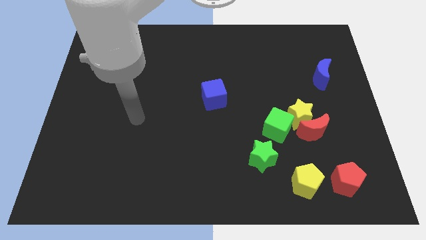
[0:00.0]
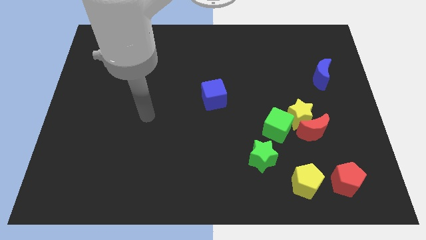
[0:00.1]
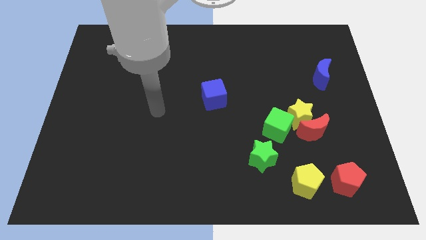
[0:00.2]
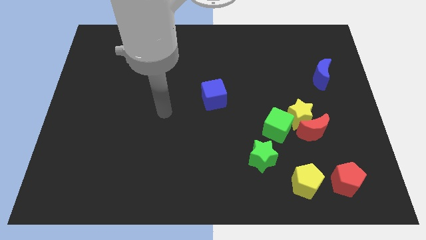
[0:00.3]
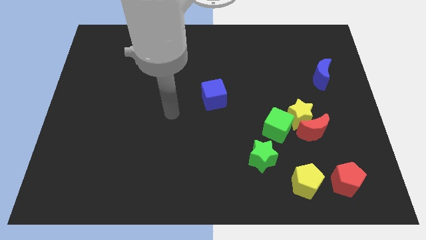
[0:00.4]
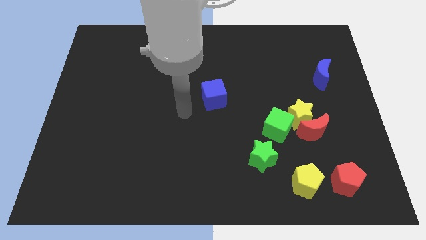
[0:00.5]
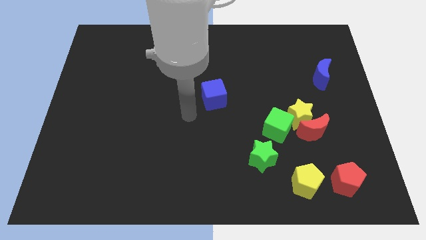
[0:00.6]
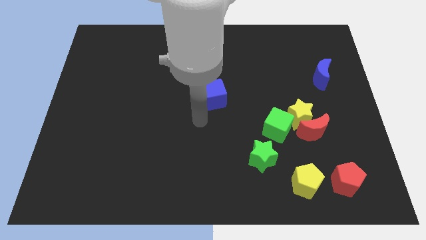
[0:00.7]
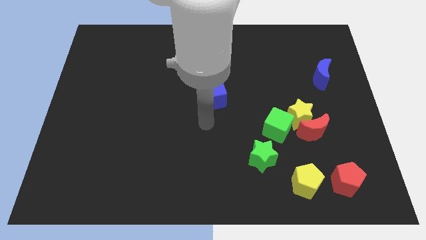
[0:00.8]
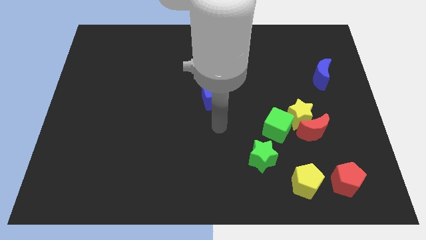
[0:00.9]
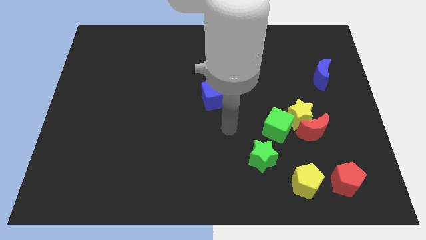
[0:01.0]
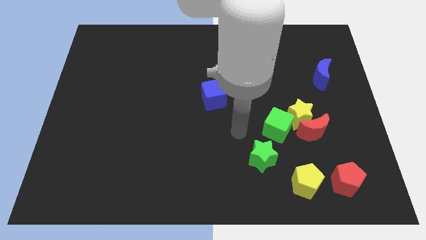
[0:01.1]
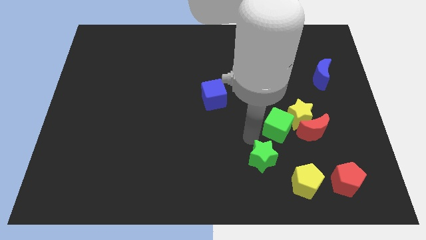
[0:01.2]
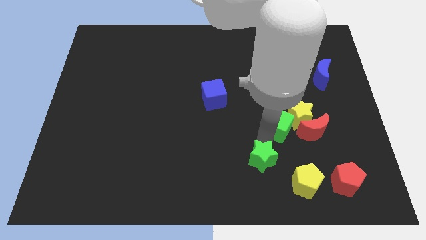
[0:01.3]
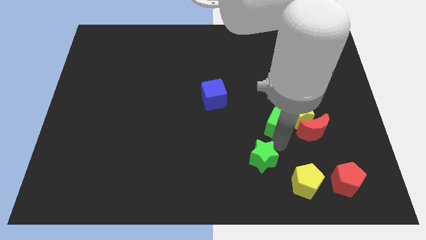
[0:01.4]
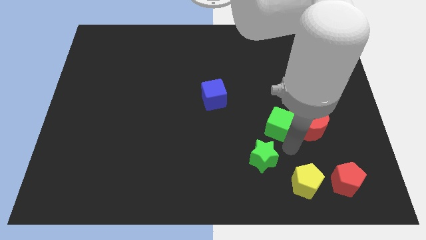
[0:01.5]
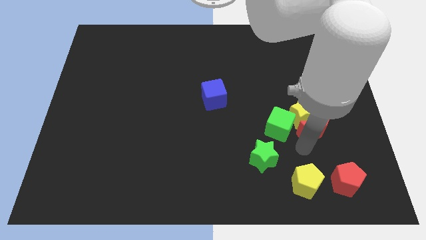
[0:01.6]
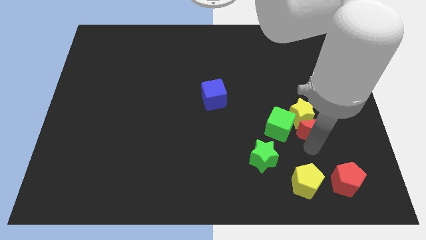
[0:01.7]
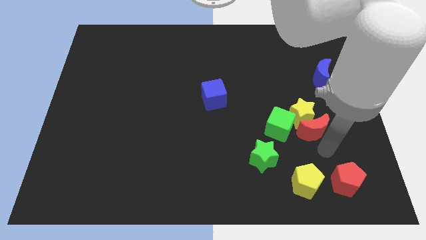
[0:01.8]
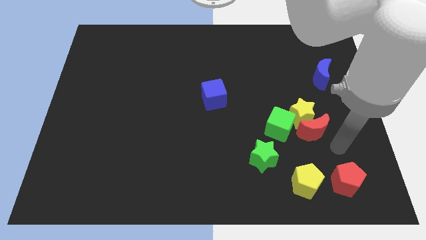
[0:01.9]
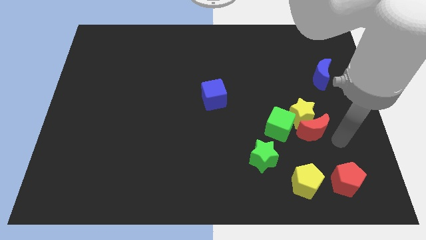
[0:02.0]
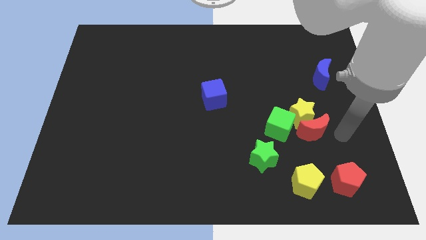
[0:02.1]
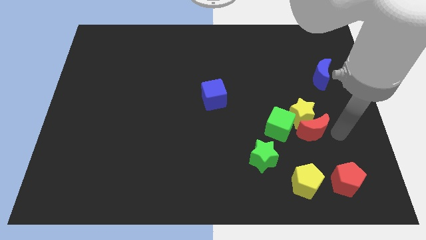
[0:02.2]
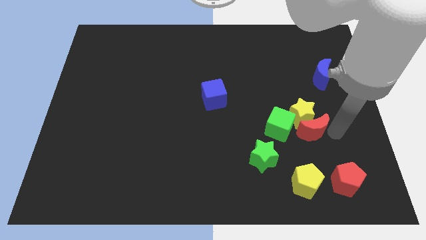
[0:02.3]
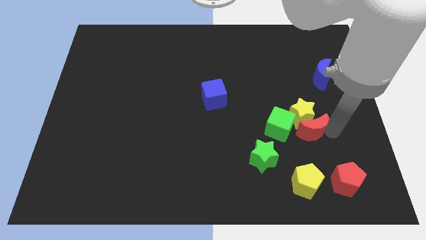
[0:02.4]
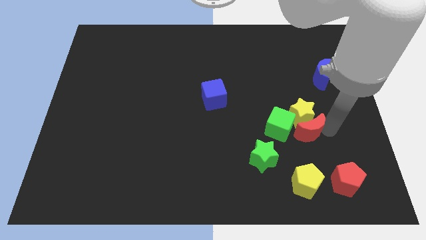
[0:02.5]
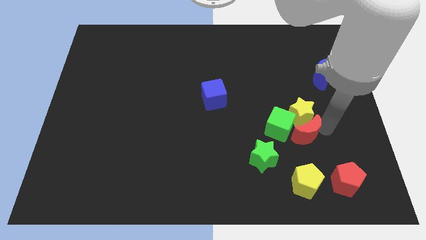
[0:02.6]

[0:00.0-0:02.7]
move the red moon towards the green cube

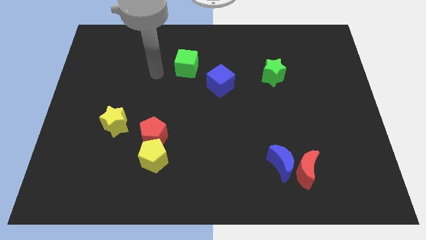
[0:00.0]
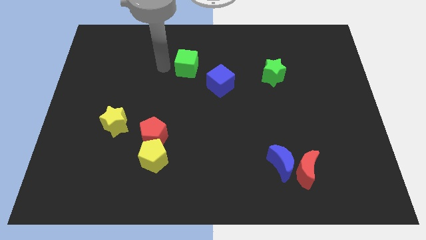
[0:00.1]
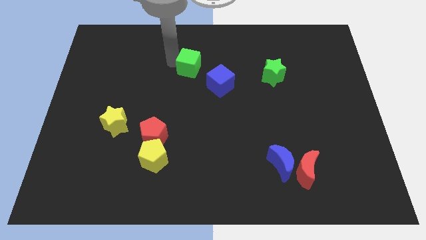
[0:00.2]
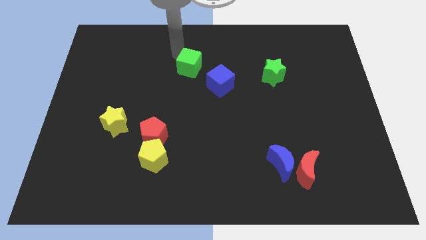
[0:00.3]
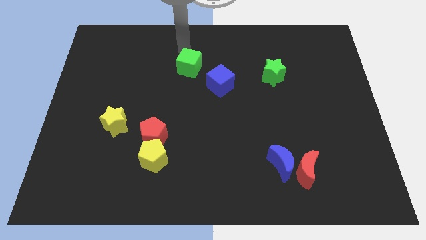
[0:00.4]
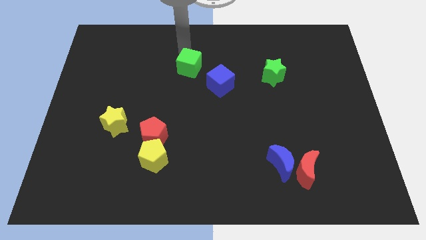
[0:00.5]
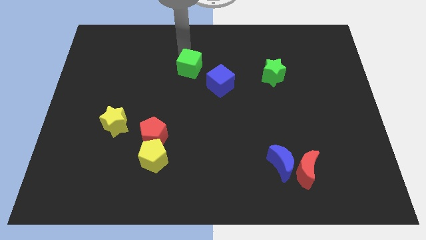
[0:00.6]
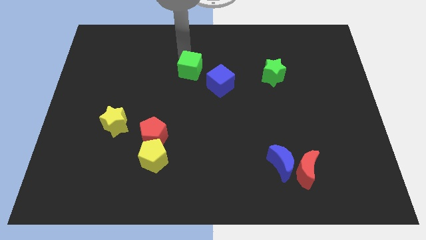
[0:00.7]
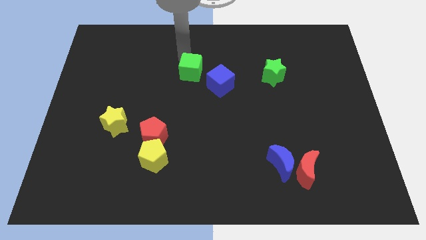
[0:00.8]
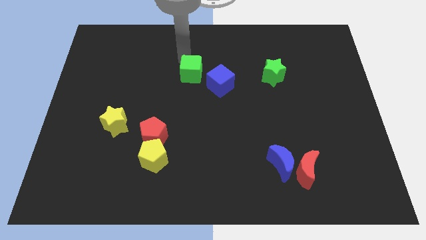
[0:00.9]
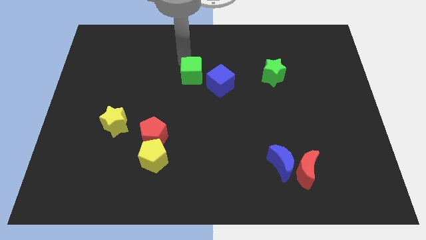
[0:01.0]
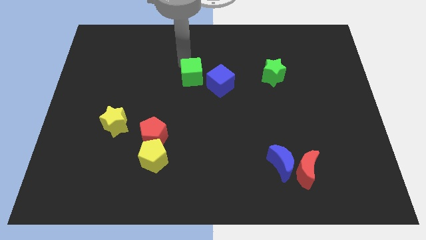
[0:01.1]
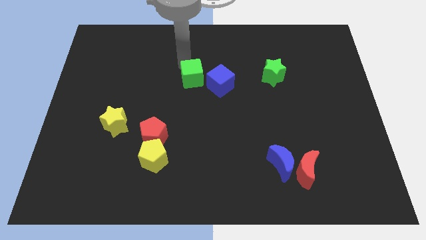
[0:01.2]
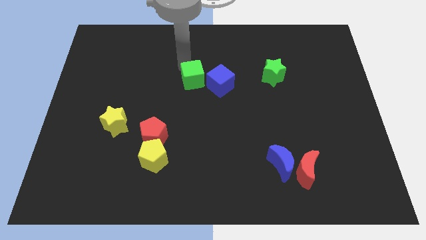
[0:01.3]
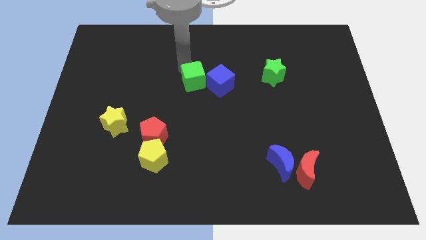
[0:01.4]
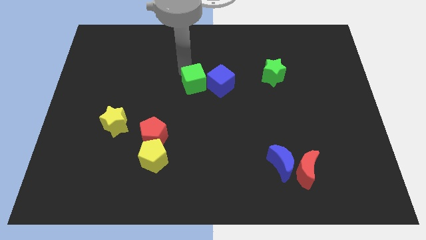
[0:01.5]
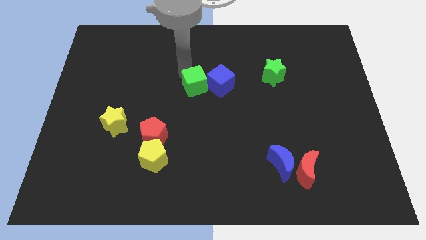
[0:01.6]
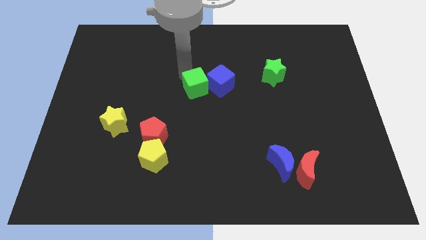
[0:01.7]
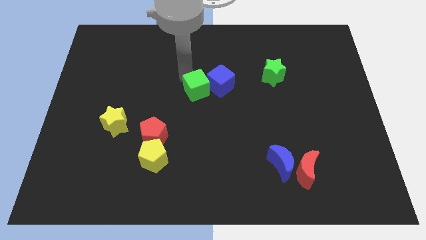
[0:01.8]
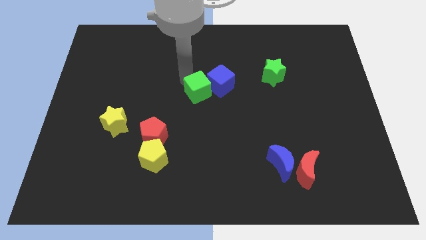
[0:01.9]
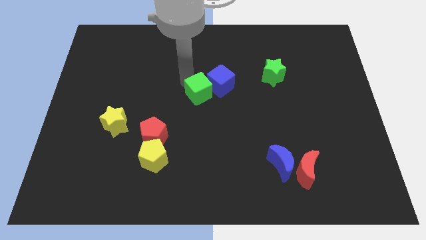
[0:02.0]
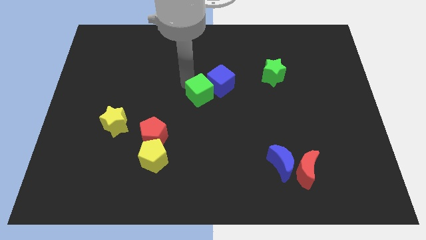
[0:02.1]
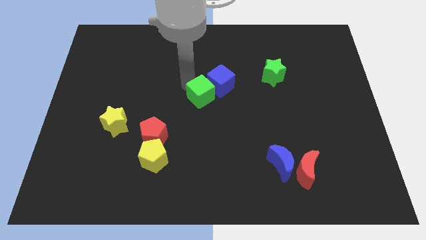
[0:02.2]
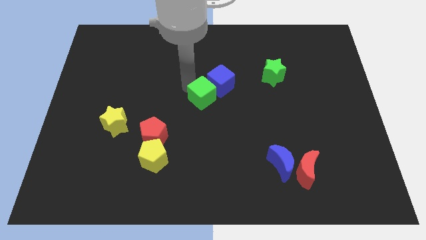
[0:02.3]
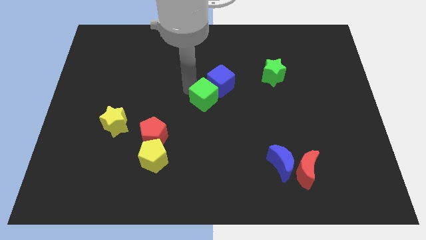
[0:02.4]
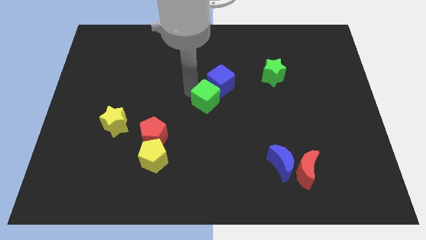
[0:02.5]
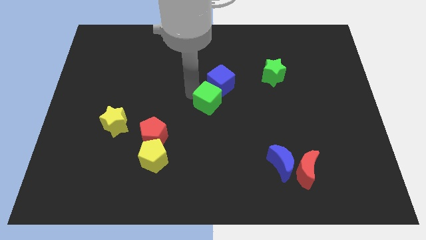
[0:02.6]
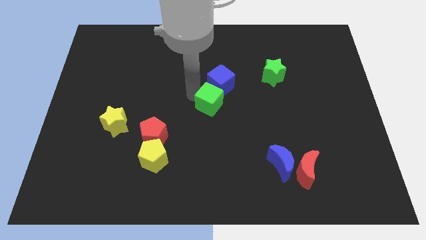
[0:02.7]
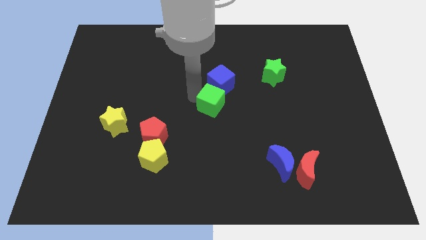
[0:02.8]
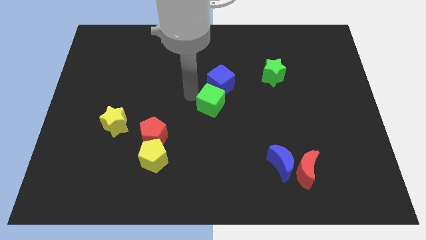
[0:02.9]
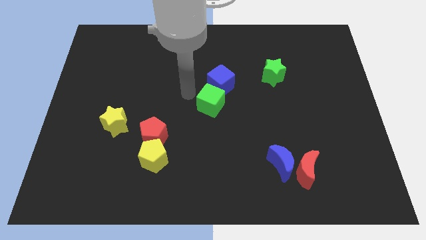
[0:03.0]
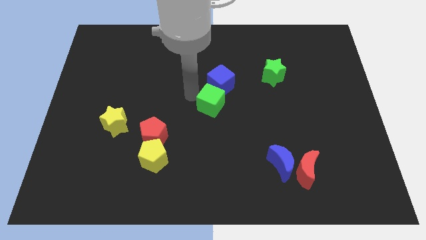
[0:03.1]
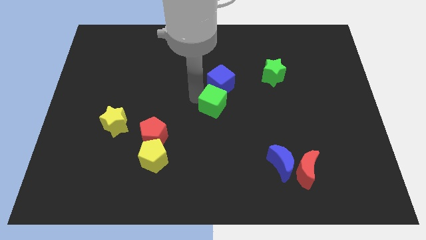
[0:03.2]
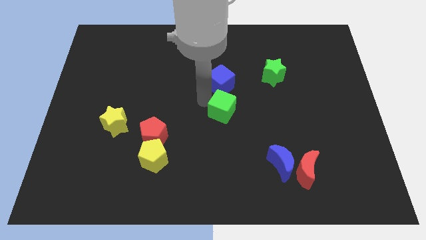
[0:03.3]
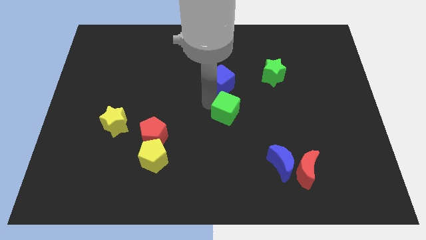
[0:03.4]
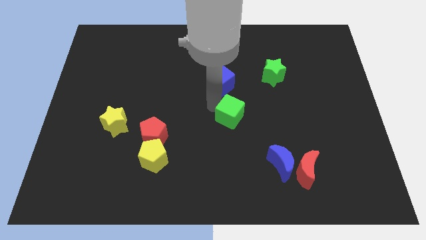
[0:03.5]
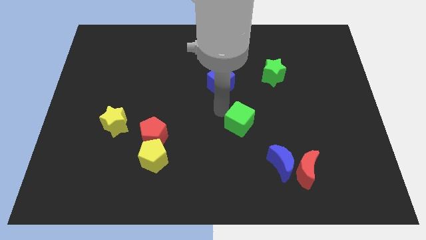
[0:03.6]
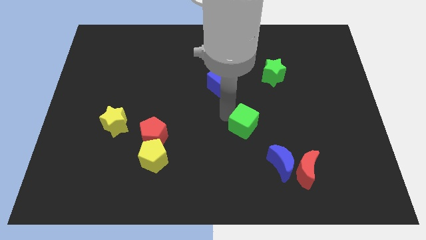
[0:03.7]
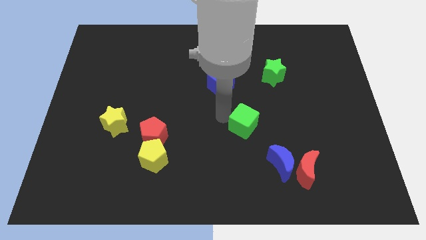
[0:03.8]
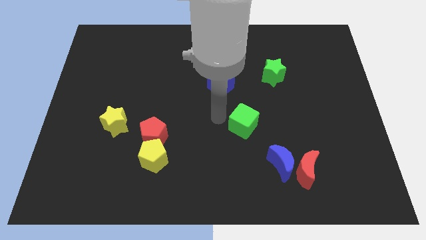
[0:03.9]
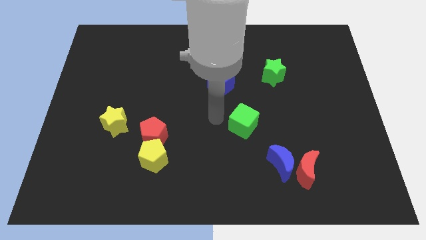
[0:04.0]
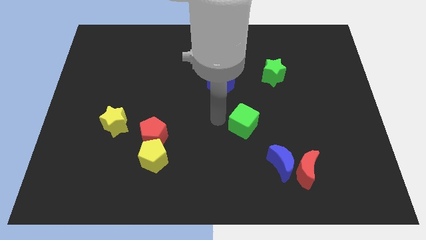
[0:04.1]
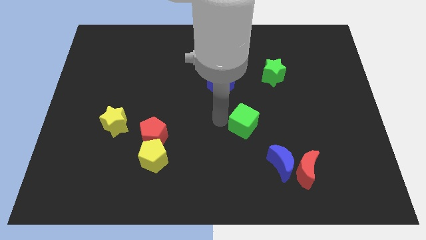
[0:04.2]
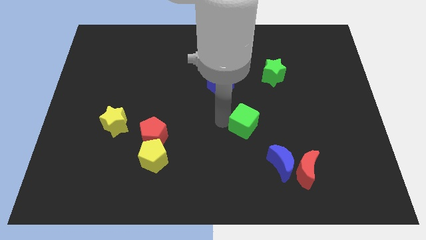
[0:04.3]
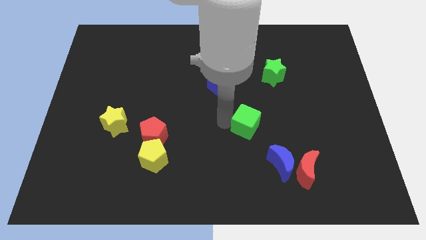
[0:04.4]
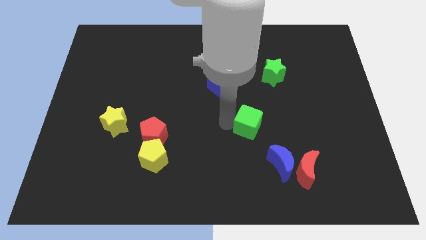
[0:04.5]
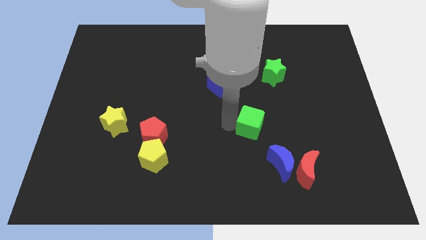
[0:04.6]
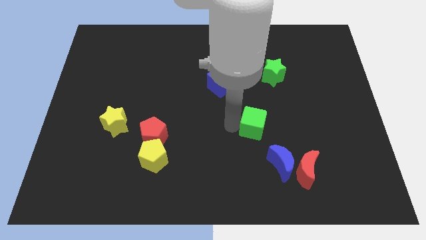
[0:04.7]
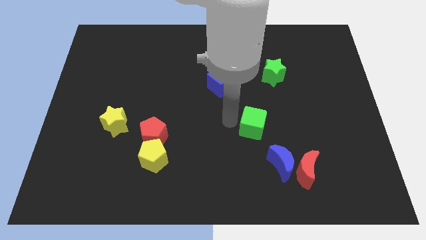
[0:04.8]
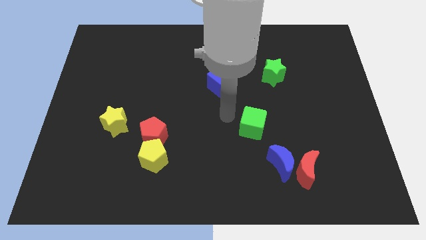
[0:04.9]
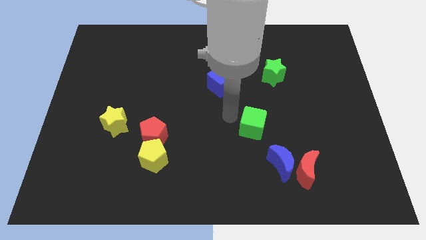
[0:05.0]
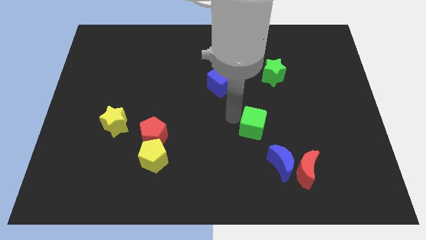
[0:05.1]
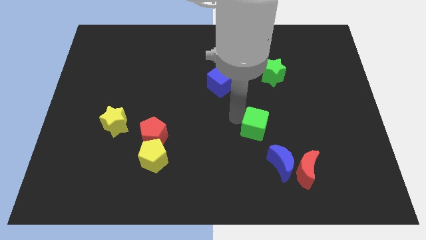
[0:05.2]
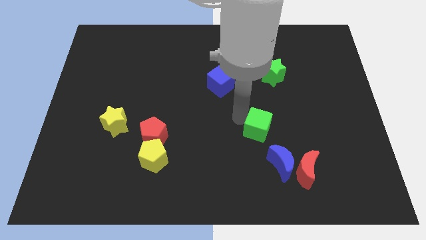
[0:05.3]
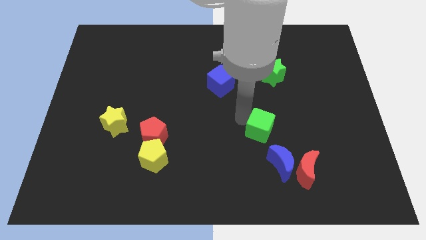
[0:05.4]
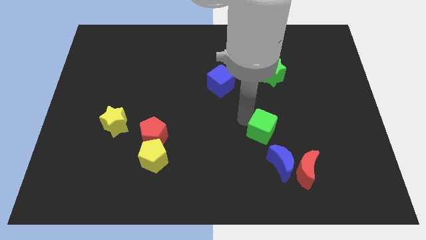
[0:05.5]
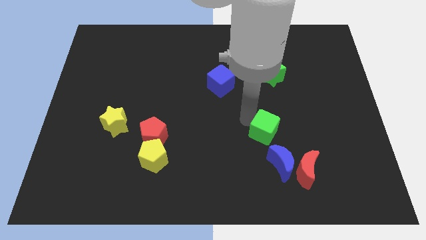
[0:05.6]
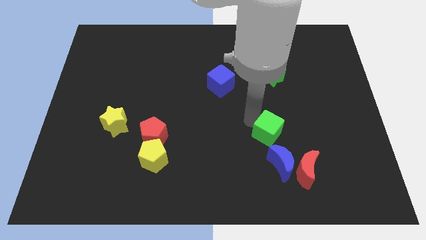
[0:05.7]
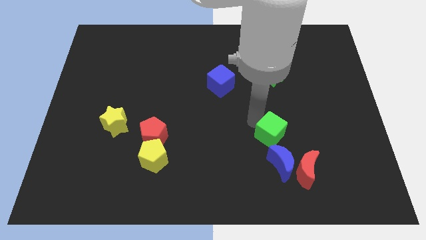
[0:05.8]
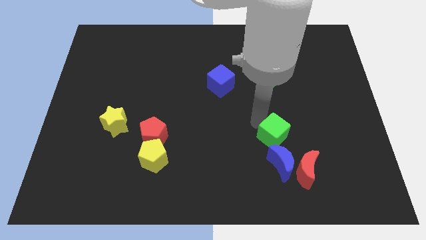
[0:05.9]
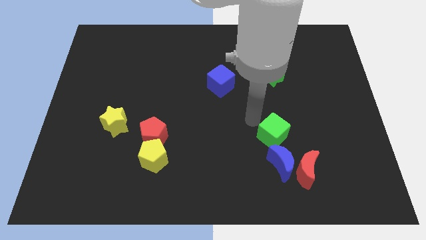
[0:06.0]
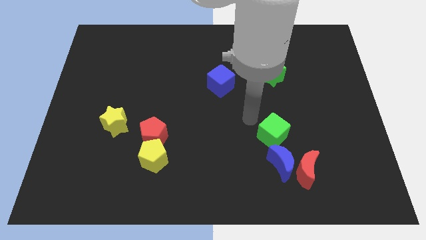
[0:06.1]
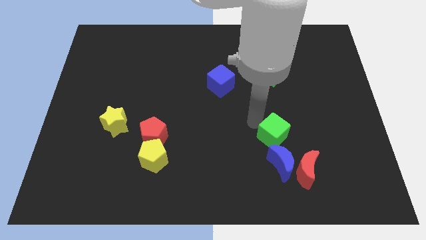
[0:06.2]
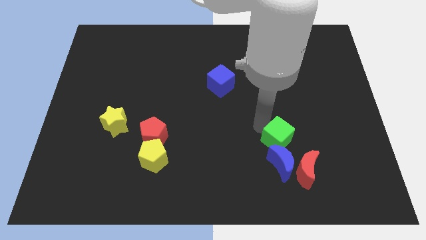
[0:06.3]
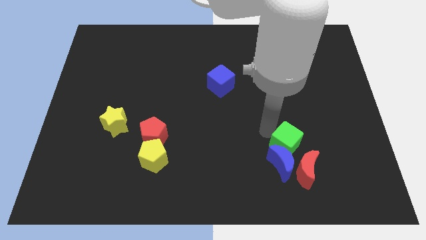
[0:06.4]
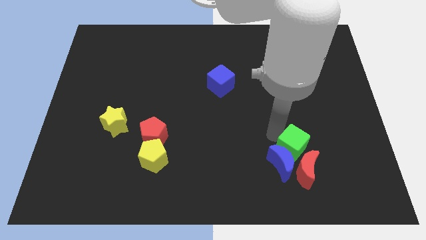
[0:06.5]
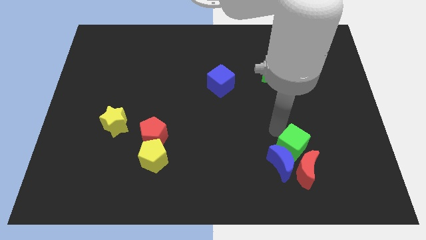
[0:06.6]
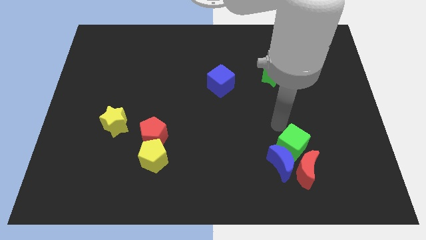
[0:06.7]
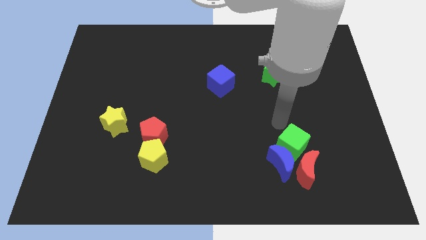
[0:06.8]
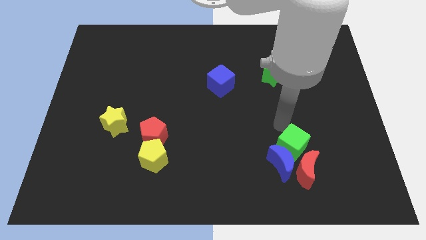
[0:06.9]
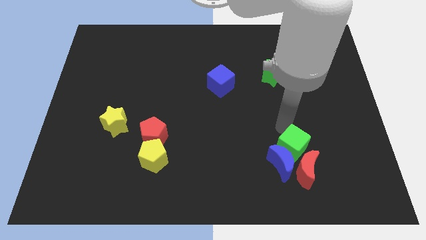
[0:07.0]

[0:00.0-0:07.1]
push the green cube towards the red moon
